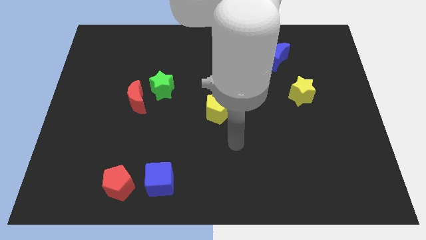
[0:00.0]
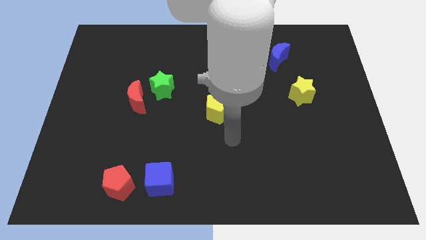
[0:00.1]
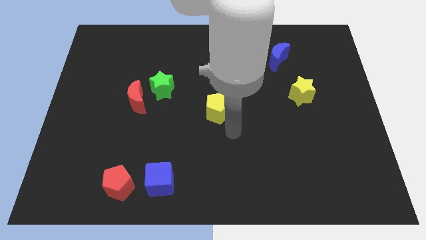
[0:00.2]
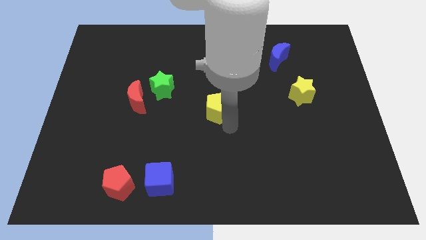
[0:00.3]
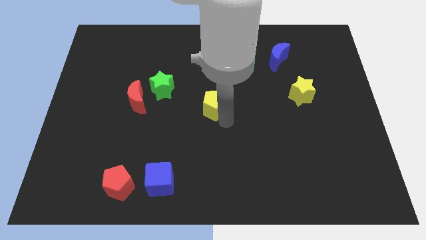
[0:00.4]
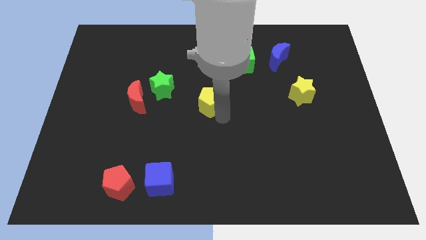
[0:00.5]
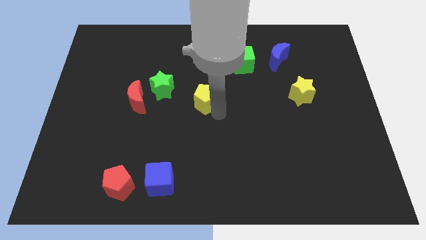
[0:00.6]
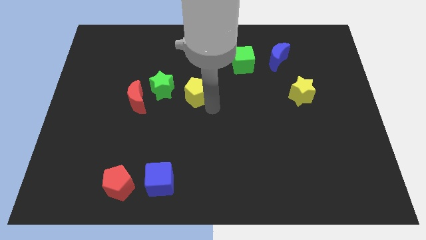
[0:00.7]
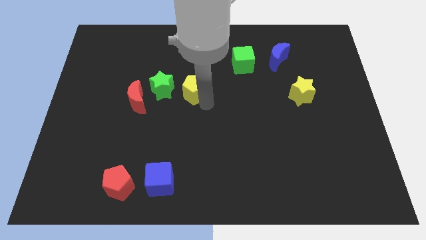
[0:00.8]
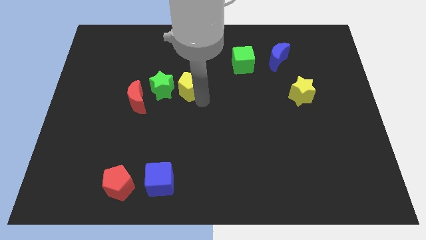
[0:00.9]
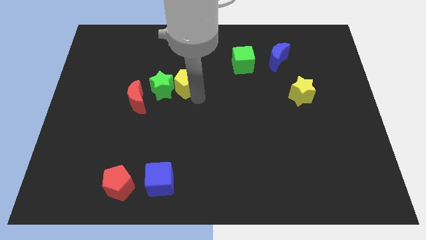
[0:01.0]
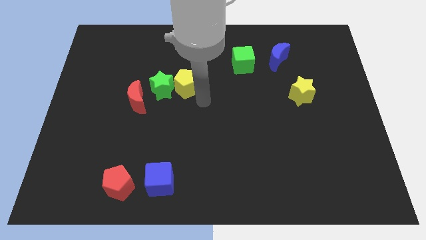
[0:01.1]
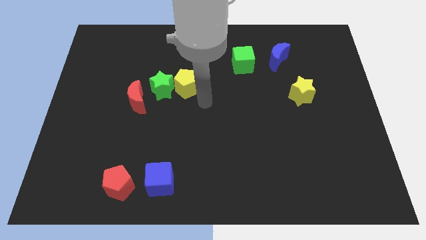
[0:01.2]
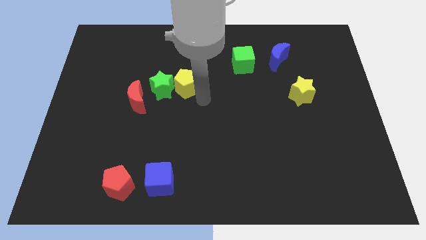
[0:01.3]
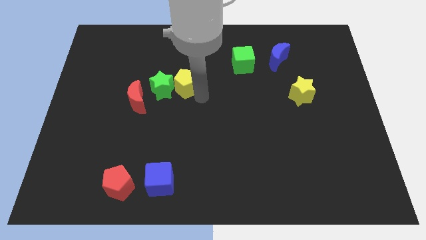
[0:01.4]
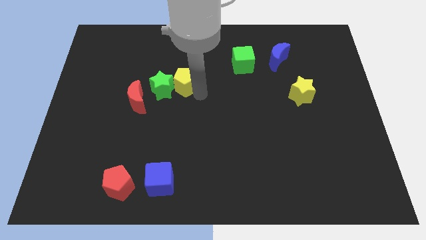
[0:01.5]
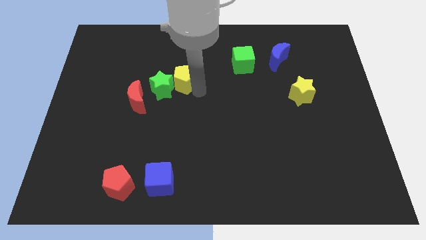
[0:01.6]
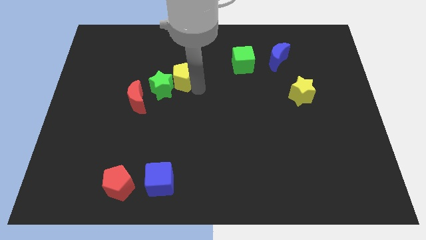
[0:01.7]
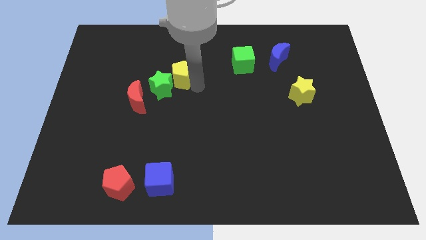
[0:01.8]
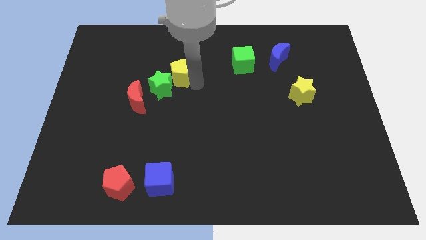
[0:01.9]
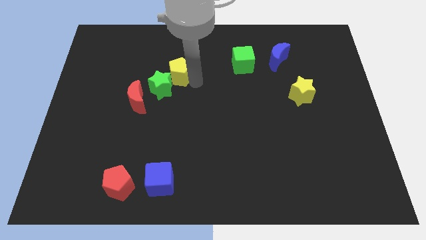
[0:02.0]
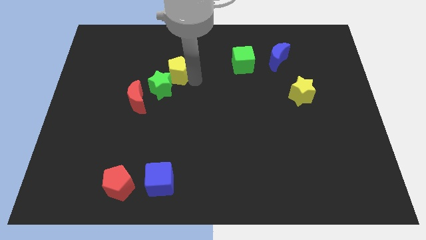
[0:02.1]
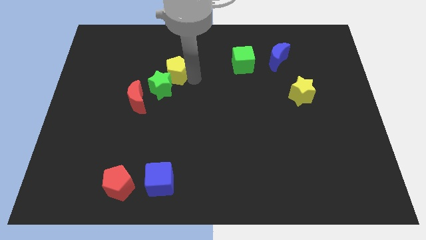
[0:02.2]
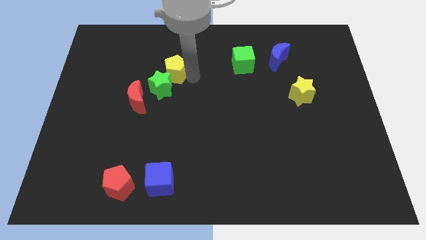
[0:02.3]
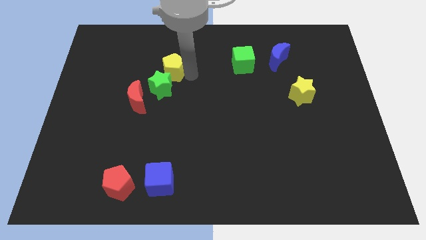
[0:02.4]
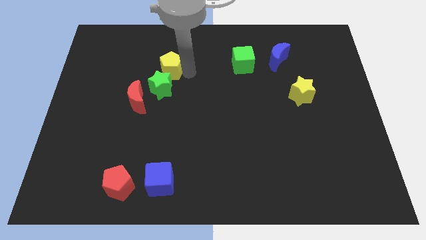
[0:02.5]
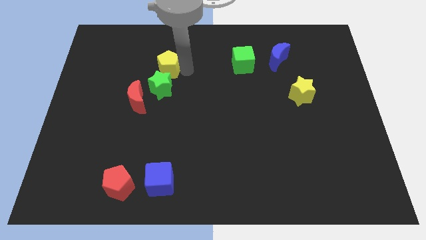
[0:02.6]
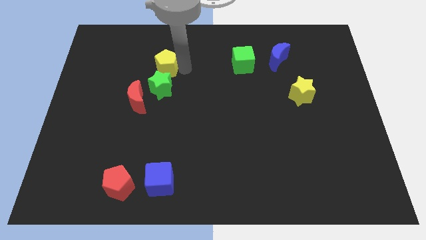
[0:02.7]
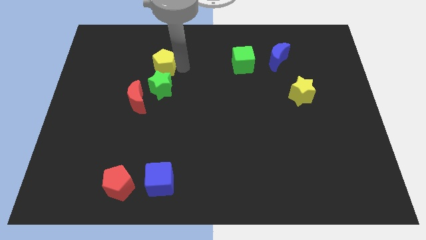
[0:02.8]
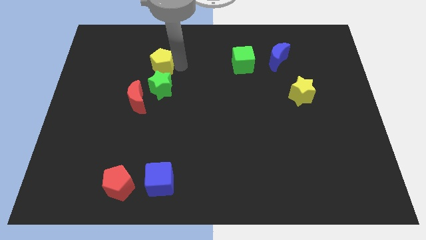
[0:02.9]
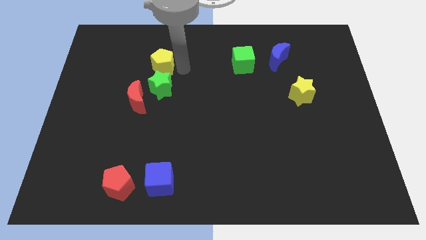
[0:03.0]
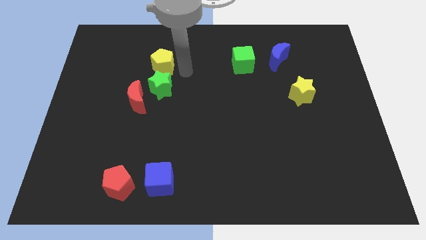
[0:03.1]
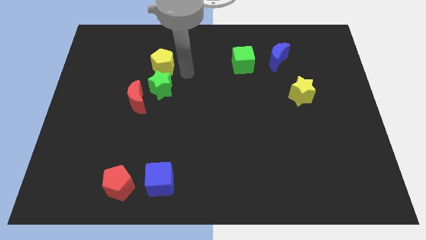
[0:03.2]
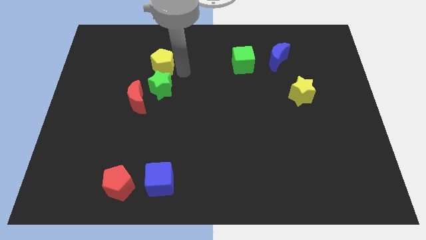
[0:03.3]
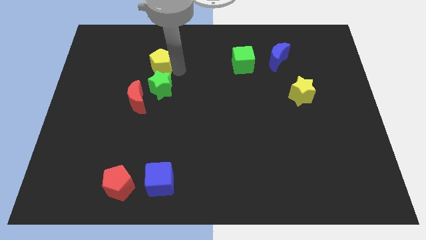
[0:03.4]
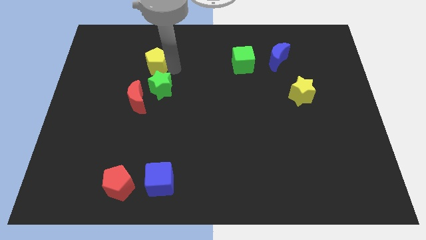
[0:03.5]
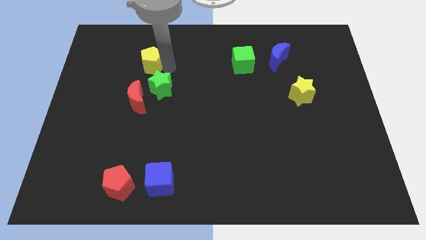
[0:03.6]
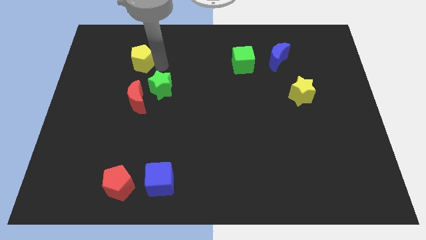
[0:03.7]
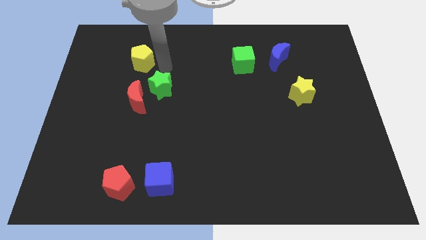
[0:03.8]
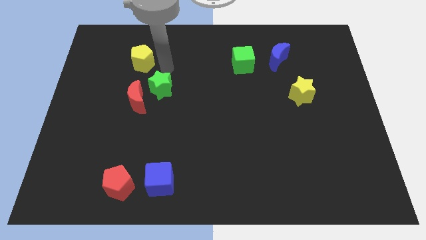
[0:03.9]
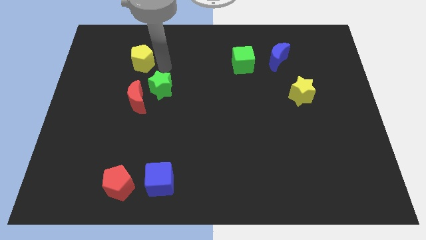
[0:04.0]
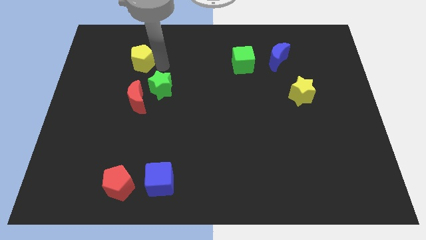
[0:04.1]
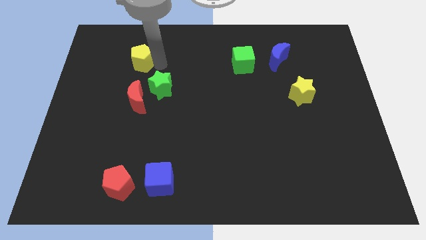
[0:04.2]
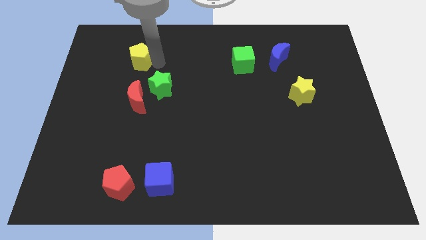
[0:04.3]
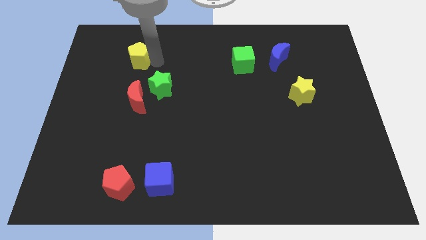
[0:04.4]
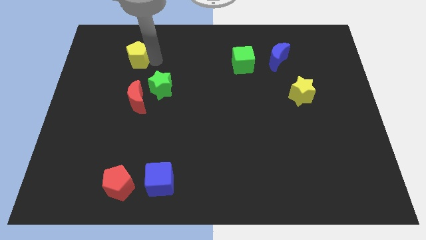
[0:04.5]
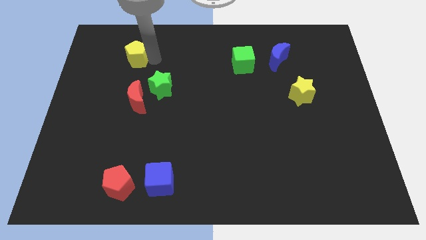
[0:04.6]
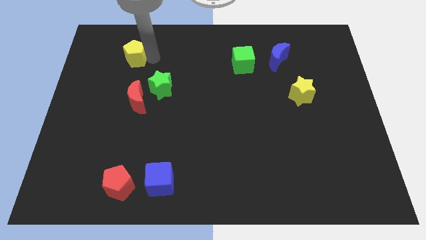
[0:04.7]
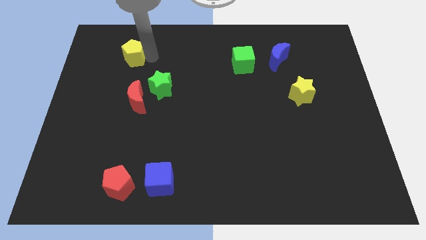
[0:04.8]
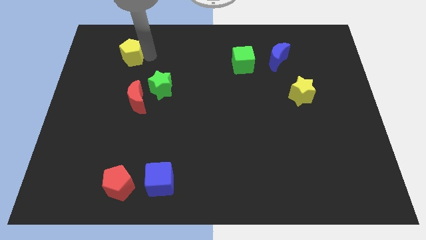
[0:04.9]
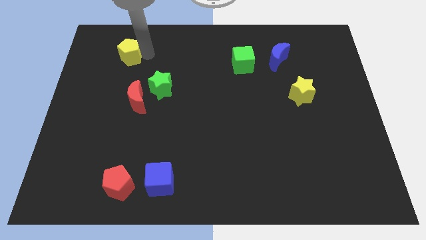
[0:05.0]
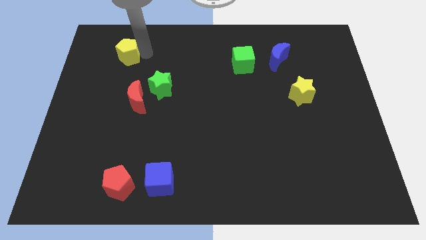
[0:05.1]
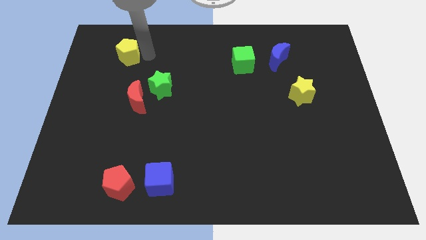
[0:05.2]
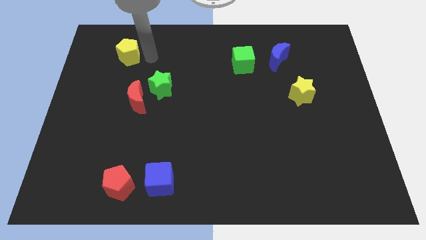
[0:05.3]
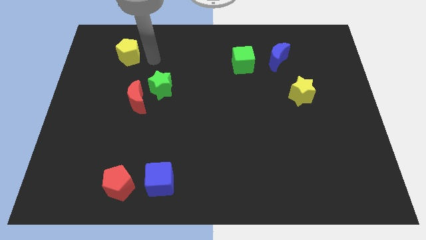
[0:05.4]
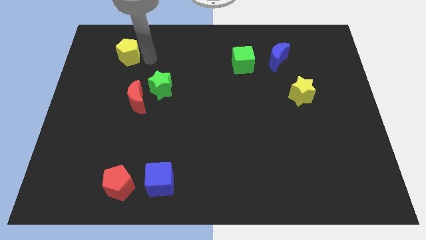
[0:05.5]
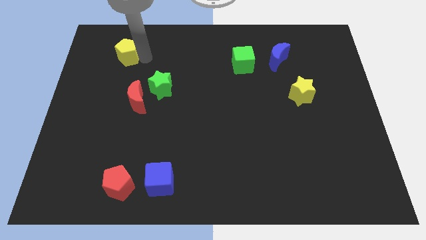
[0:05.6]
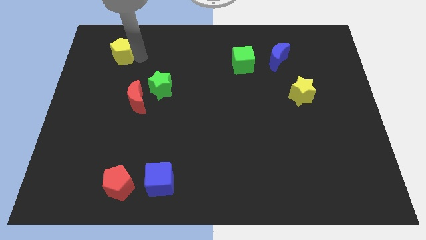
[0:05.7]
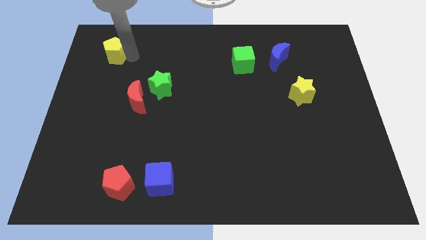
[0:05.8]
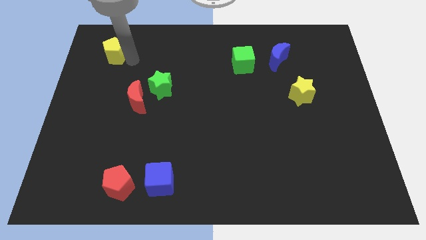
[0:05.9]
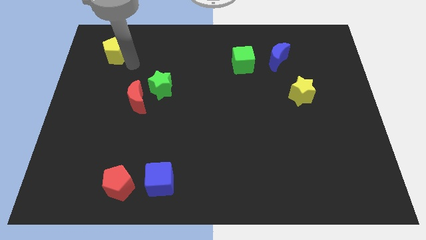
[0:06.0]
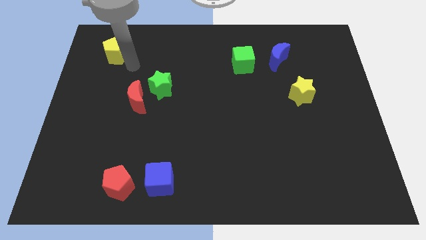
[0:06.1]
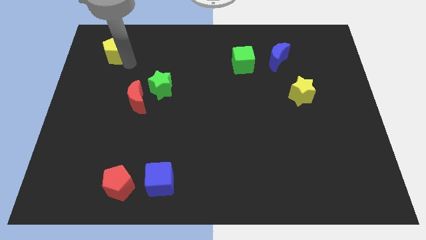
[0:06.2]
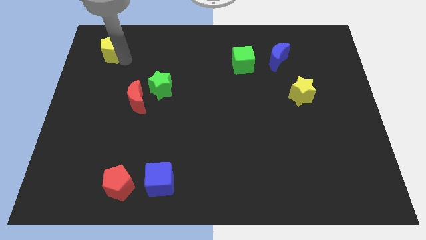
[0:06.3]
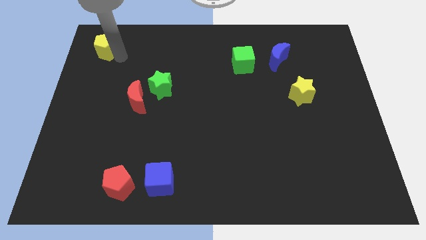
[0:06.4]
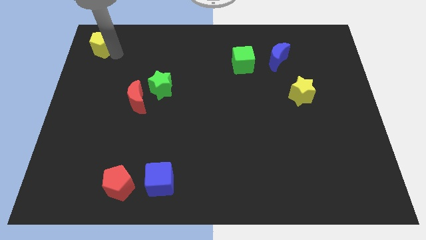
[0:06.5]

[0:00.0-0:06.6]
slide the yellow pentagon to the upper left corner

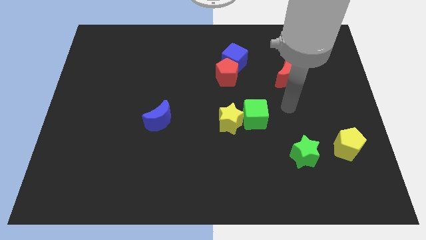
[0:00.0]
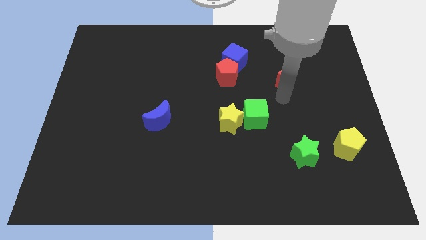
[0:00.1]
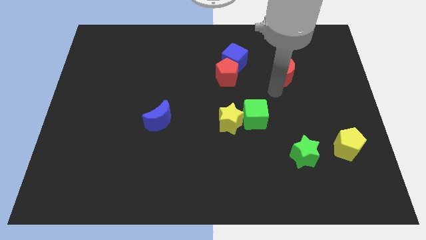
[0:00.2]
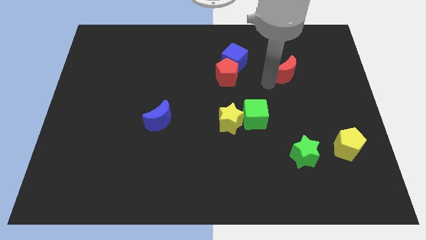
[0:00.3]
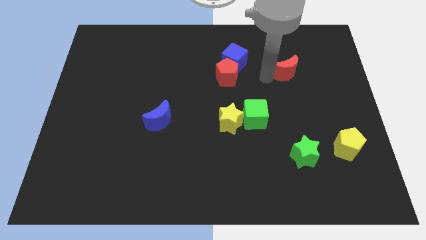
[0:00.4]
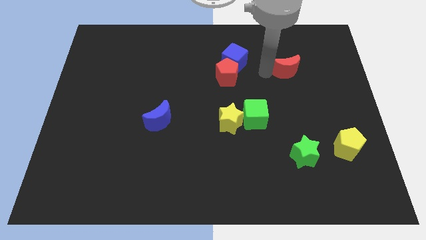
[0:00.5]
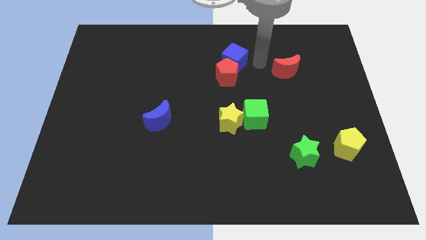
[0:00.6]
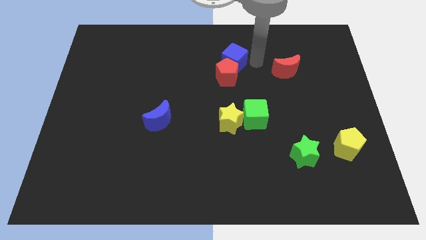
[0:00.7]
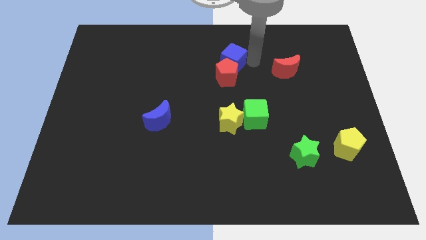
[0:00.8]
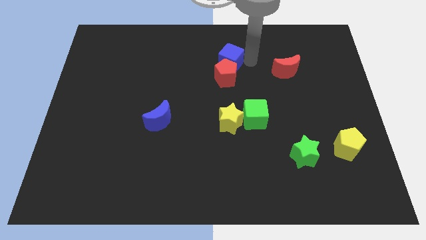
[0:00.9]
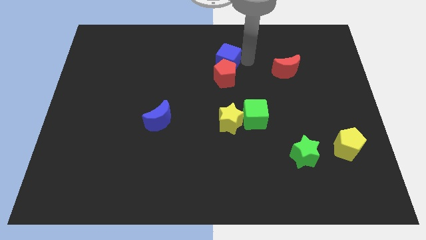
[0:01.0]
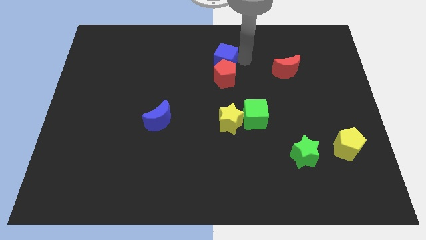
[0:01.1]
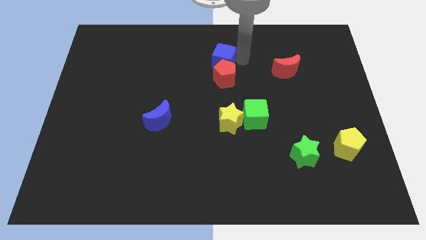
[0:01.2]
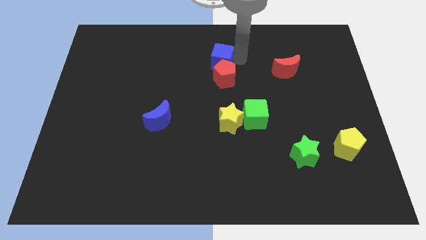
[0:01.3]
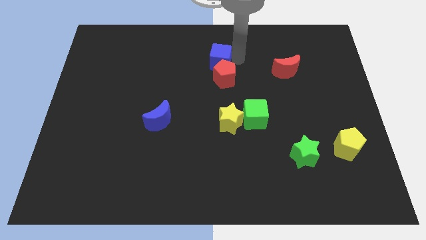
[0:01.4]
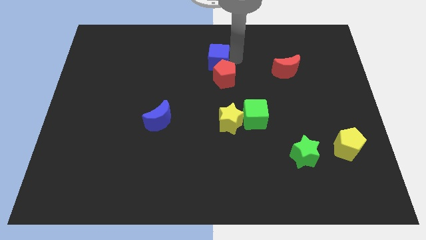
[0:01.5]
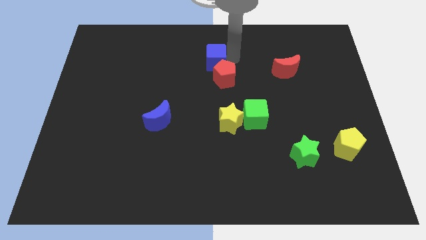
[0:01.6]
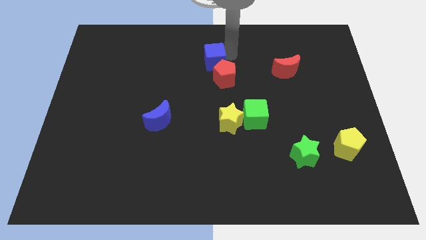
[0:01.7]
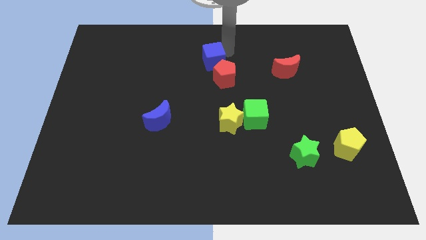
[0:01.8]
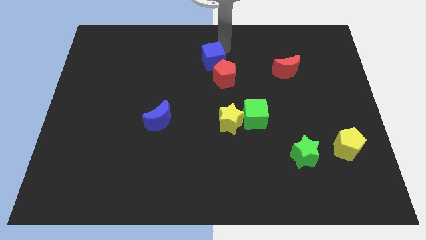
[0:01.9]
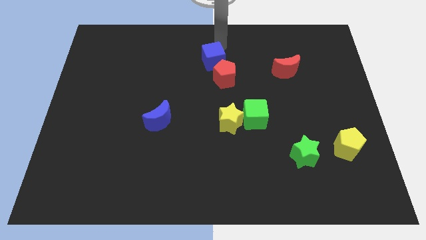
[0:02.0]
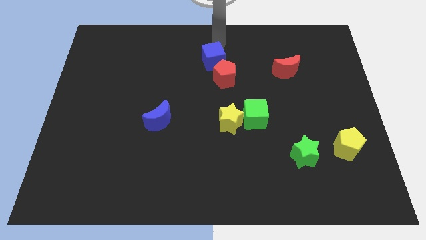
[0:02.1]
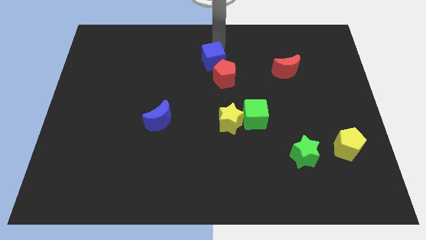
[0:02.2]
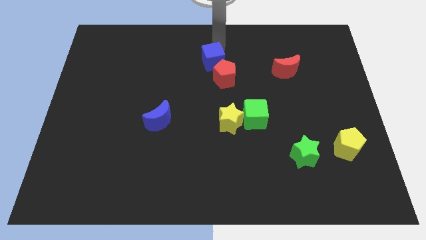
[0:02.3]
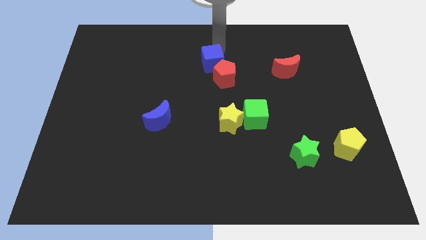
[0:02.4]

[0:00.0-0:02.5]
put the blue cube to the middle of the board
